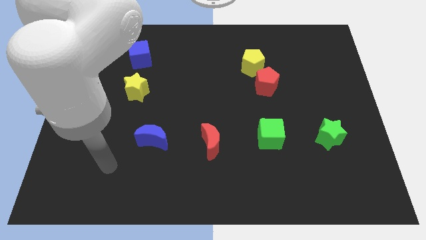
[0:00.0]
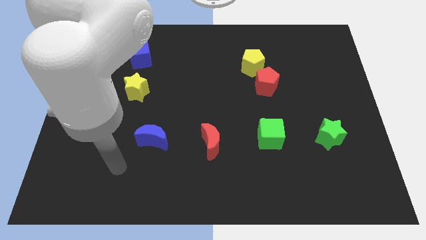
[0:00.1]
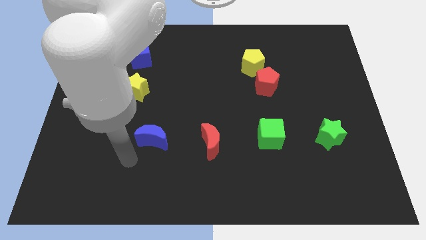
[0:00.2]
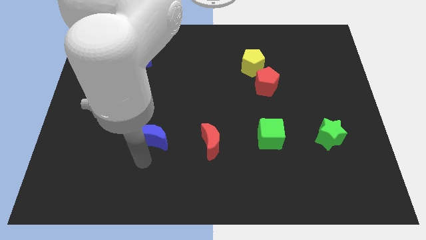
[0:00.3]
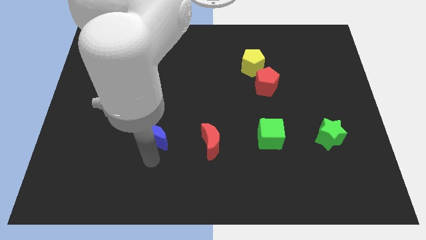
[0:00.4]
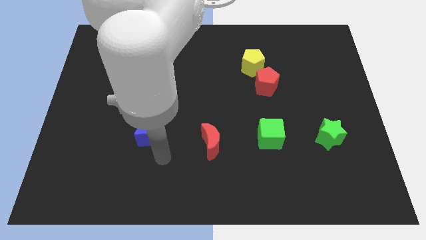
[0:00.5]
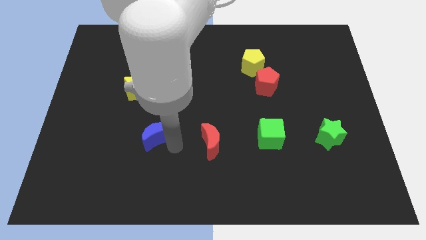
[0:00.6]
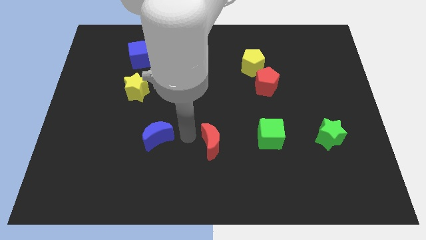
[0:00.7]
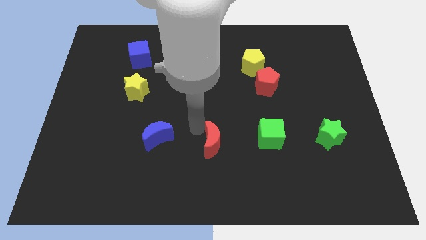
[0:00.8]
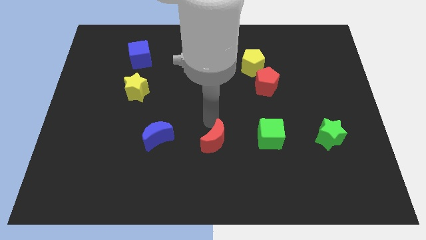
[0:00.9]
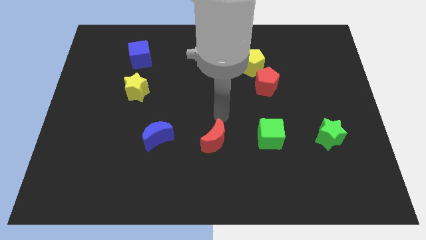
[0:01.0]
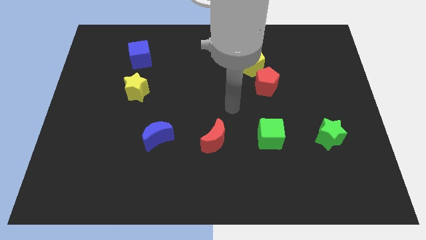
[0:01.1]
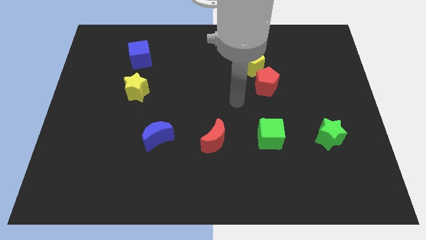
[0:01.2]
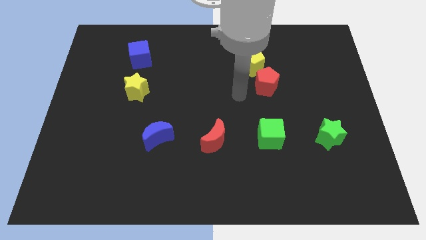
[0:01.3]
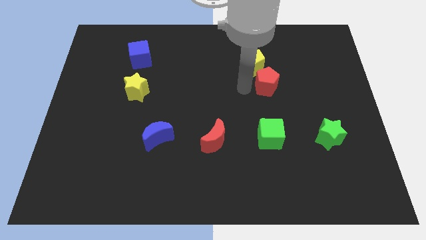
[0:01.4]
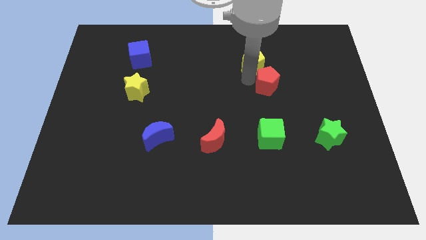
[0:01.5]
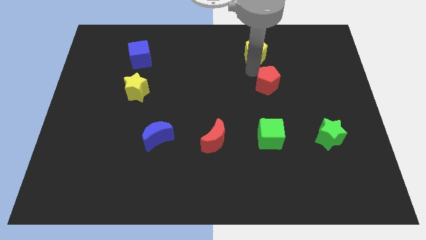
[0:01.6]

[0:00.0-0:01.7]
pull the red pentagon apart from the yellow pentagon

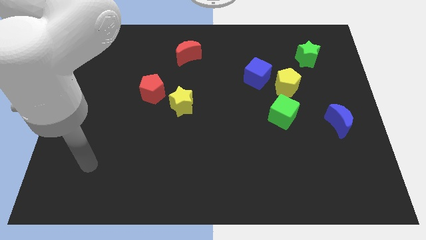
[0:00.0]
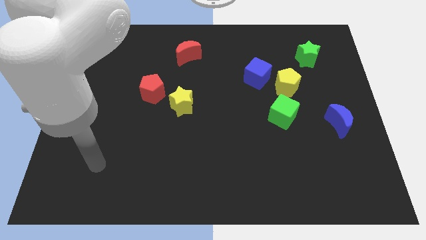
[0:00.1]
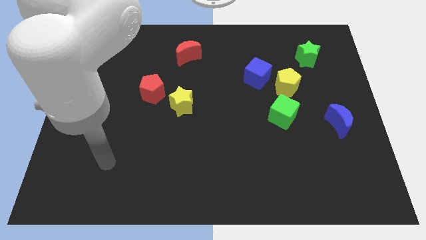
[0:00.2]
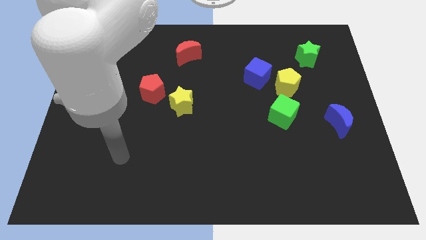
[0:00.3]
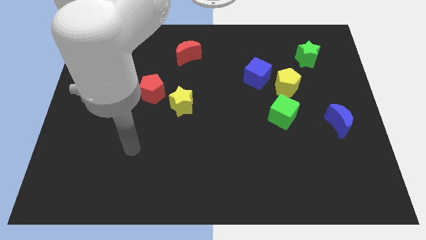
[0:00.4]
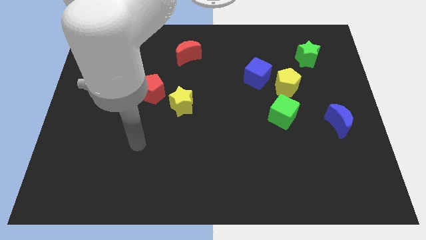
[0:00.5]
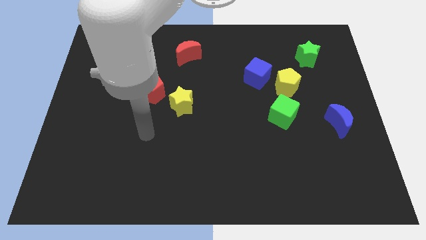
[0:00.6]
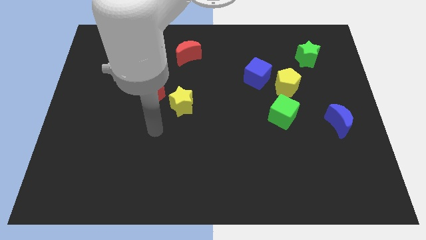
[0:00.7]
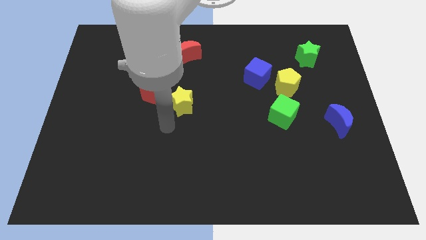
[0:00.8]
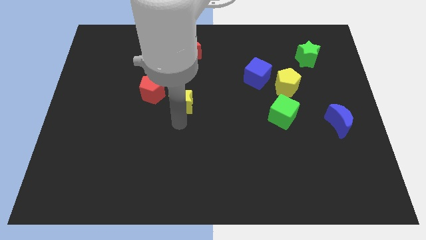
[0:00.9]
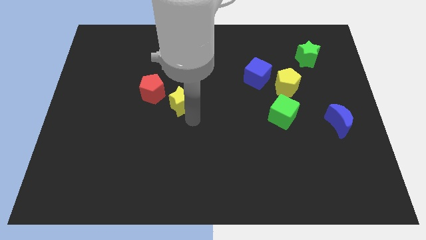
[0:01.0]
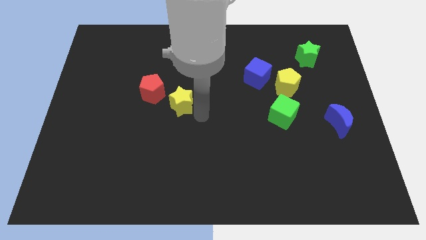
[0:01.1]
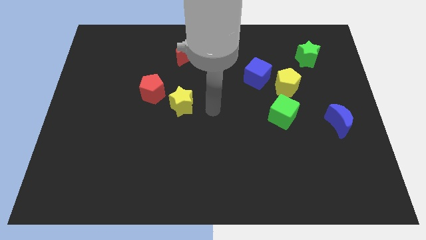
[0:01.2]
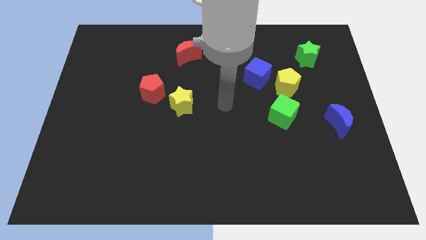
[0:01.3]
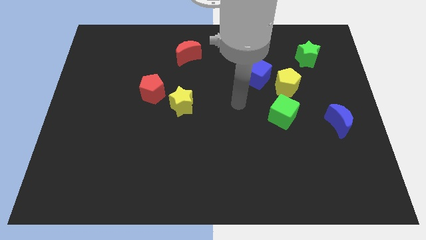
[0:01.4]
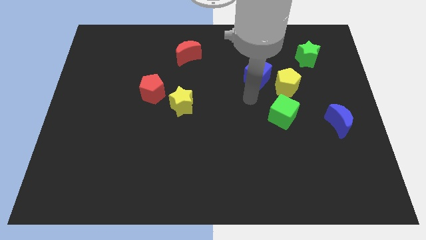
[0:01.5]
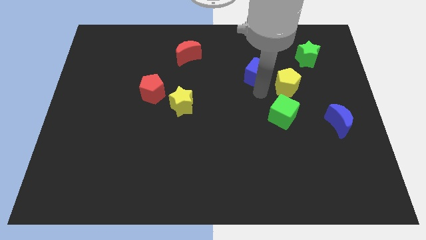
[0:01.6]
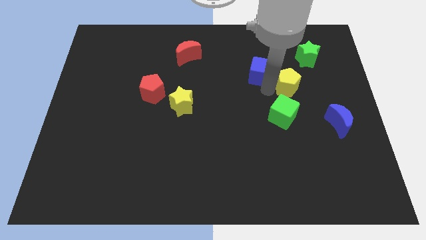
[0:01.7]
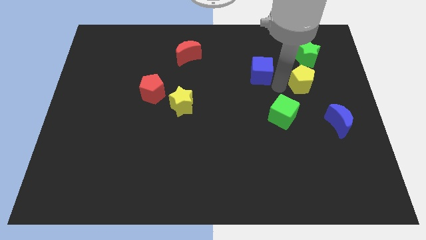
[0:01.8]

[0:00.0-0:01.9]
pull the blue cube apart from the yellow pentagon

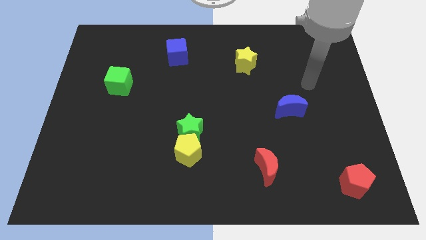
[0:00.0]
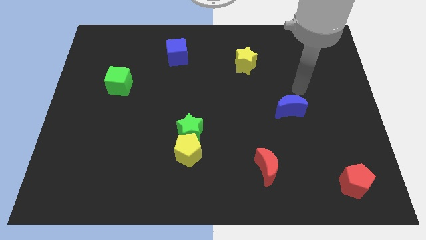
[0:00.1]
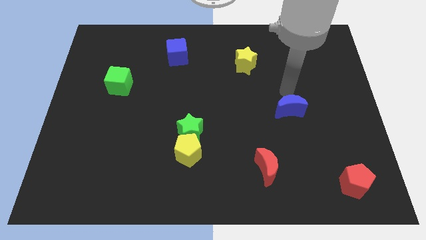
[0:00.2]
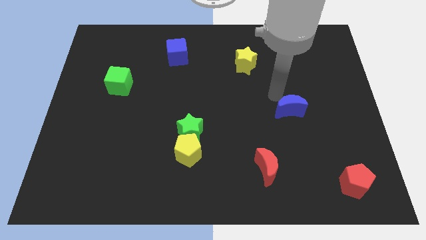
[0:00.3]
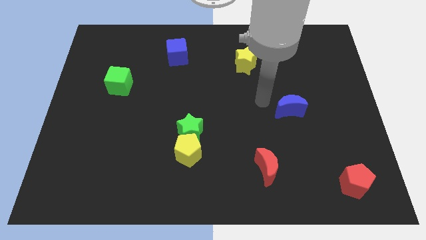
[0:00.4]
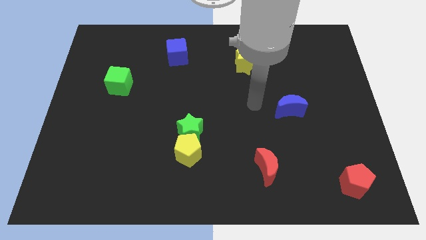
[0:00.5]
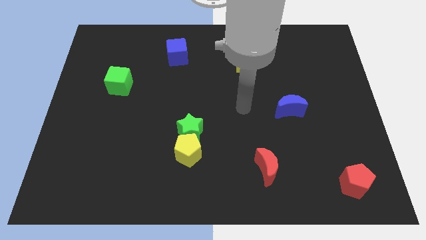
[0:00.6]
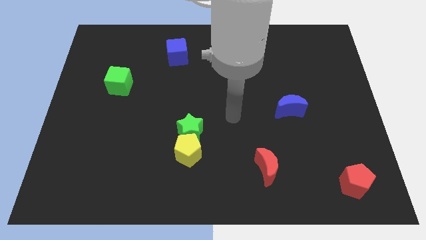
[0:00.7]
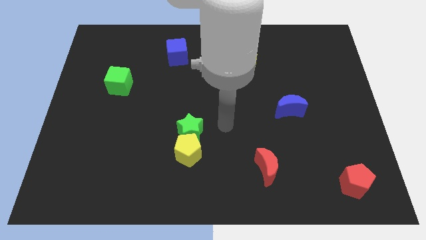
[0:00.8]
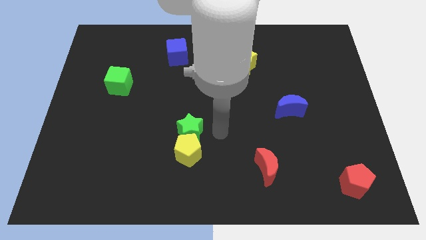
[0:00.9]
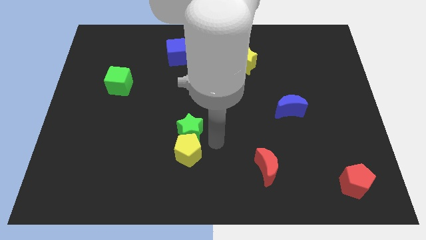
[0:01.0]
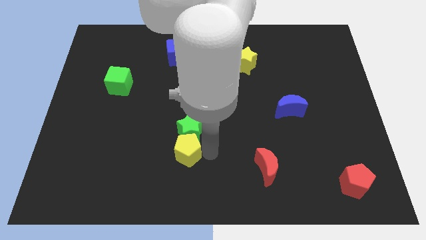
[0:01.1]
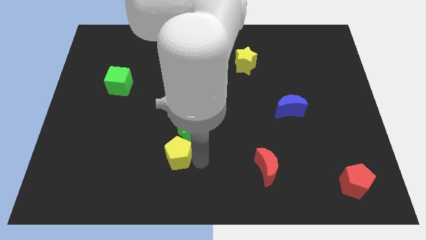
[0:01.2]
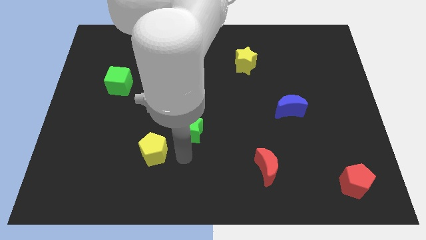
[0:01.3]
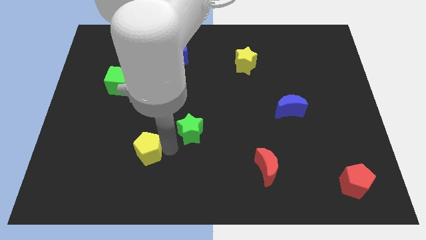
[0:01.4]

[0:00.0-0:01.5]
separate the green star from the yellow pentagon

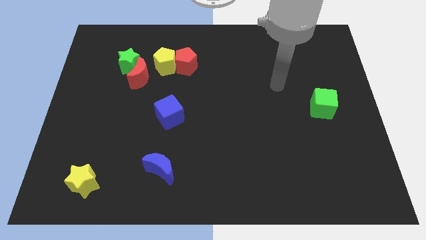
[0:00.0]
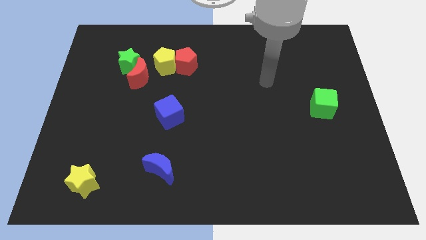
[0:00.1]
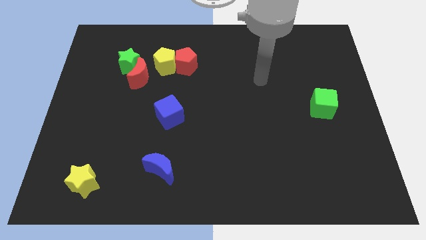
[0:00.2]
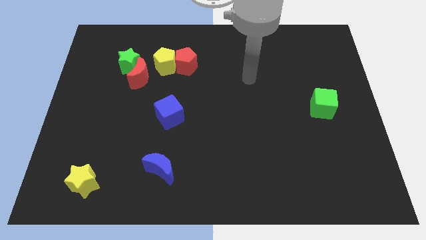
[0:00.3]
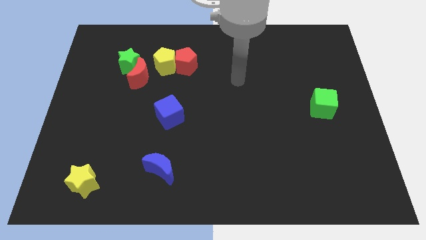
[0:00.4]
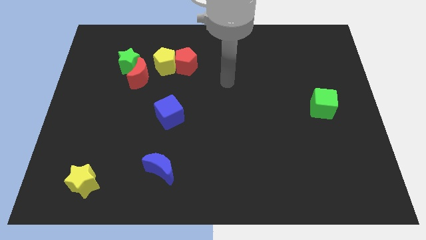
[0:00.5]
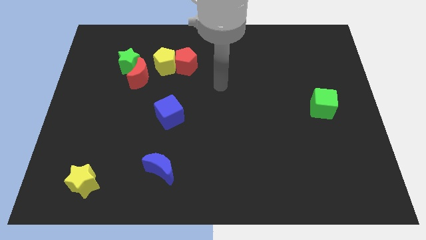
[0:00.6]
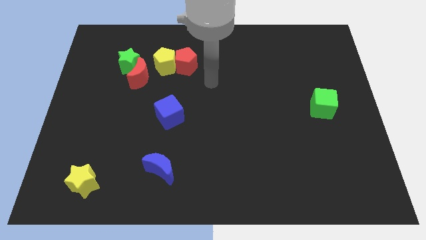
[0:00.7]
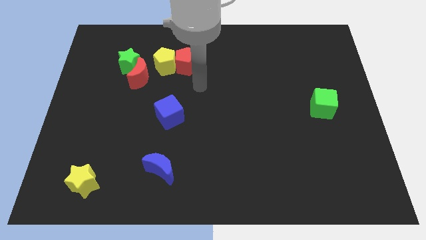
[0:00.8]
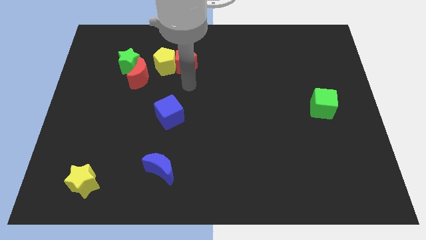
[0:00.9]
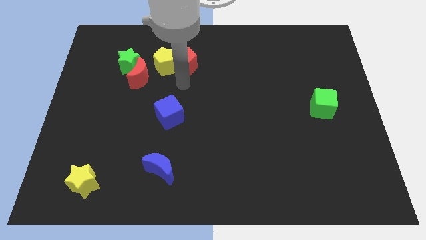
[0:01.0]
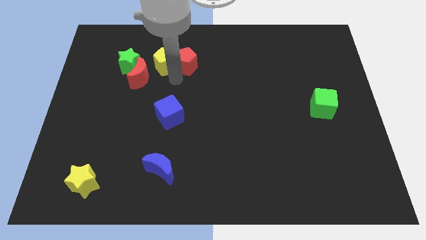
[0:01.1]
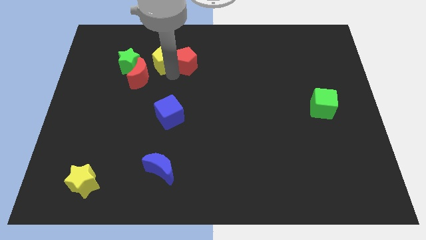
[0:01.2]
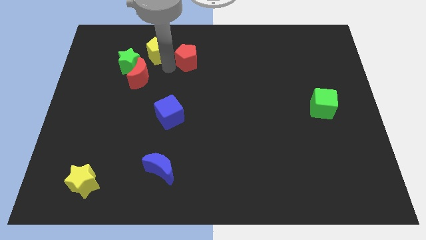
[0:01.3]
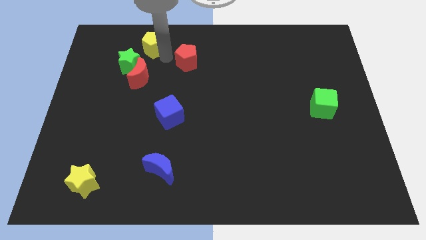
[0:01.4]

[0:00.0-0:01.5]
move the red pentagon away from the yellow pentagon

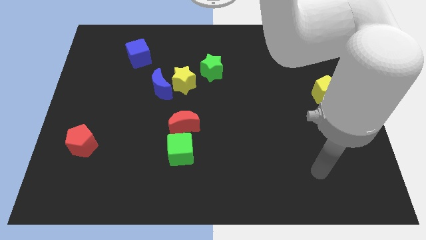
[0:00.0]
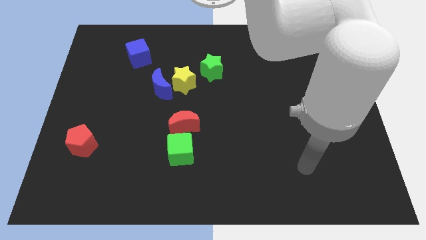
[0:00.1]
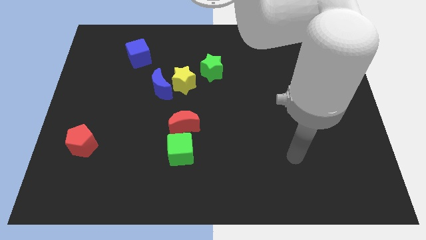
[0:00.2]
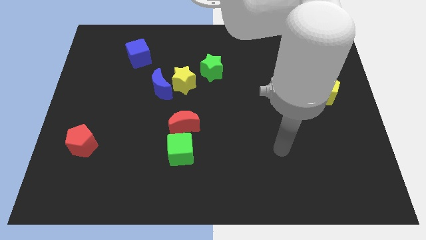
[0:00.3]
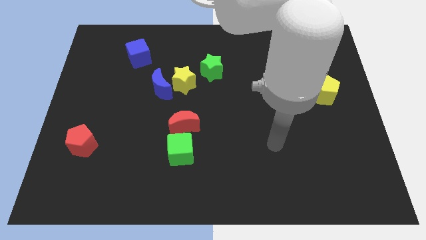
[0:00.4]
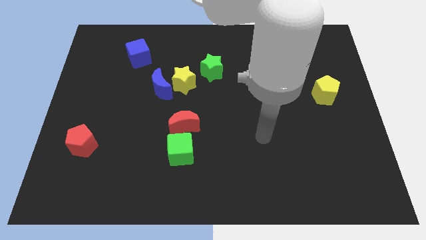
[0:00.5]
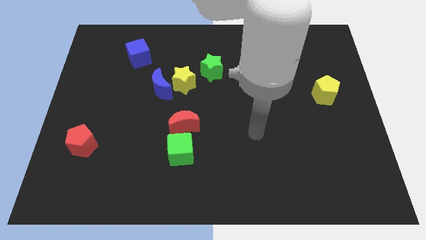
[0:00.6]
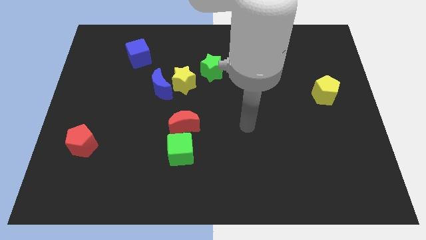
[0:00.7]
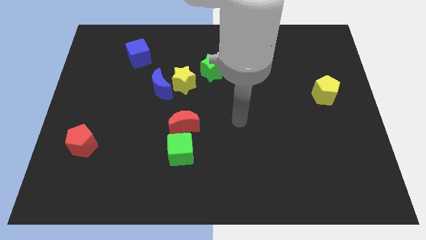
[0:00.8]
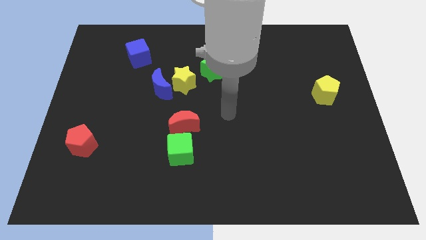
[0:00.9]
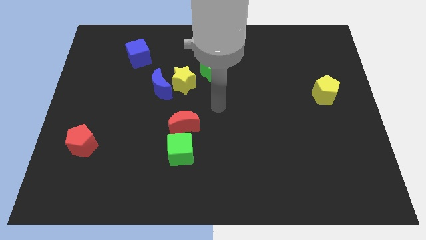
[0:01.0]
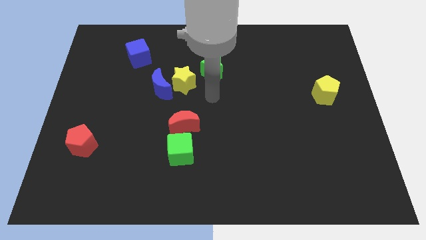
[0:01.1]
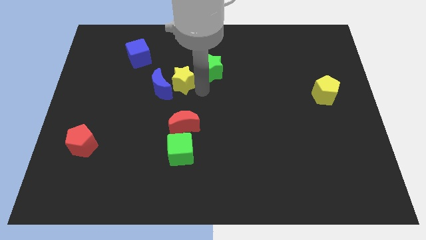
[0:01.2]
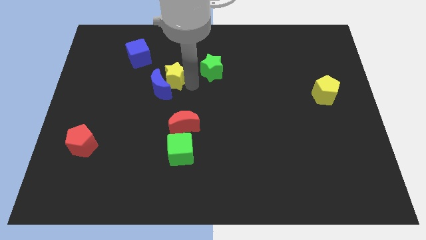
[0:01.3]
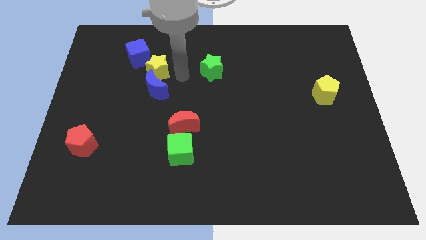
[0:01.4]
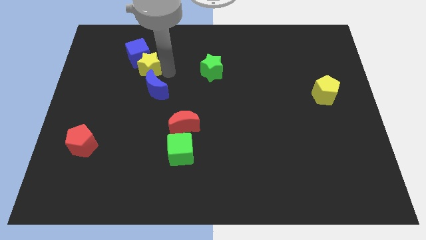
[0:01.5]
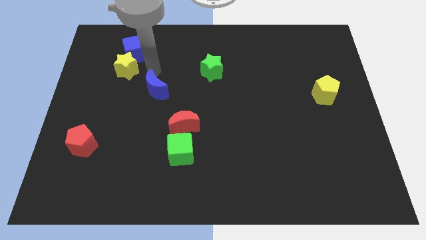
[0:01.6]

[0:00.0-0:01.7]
separate the blue moon from the yellow star

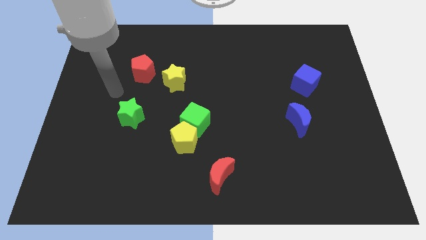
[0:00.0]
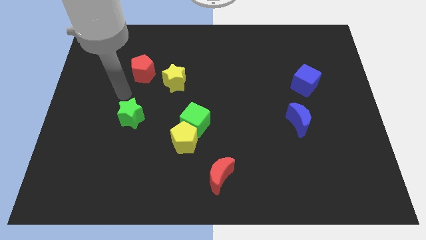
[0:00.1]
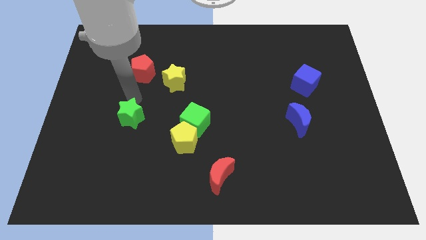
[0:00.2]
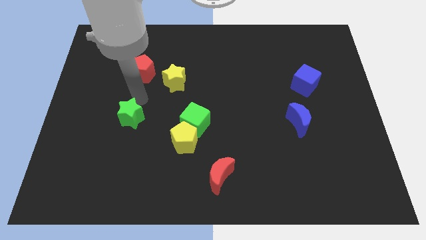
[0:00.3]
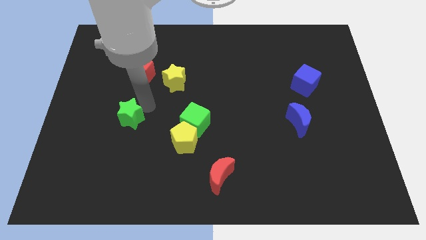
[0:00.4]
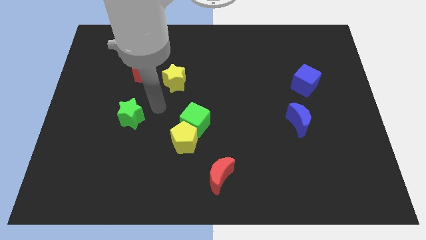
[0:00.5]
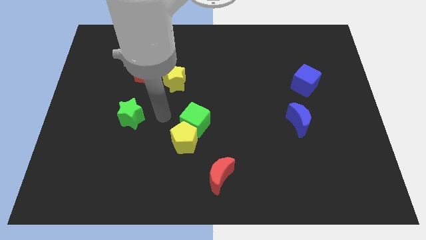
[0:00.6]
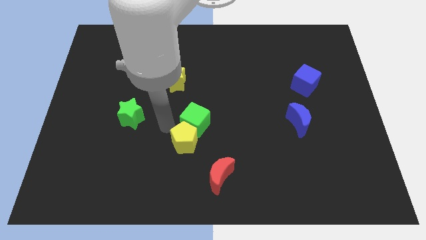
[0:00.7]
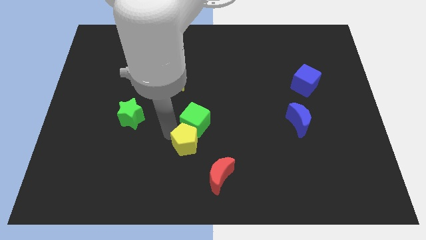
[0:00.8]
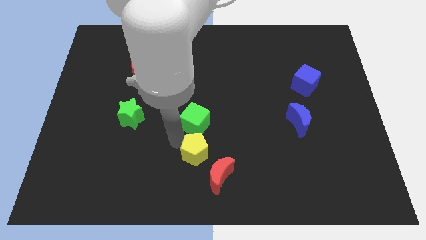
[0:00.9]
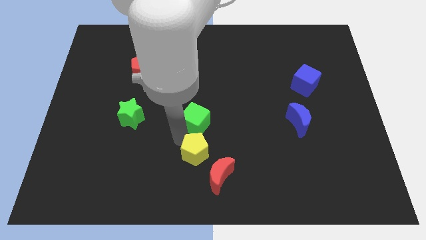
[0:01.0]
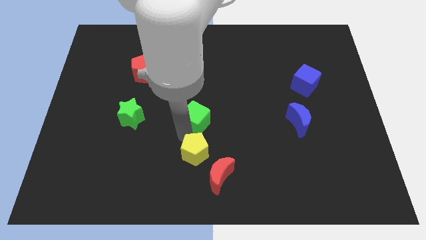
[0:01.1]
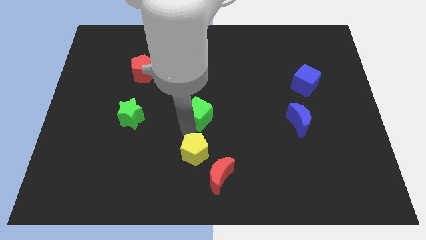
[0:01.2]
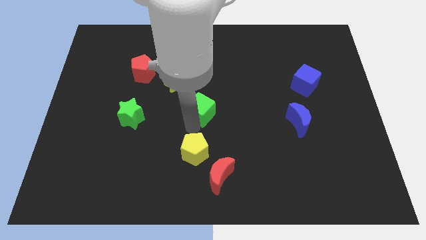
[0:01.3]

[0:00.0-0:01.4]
separate the green cube from the yellow pentagon
